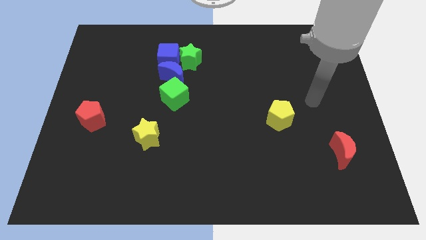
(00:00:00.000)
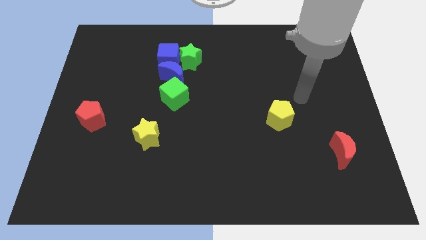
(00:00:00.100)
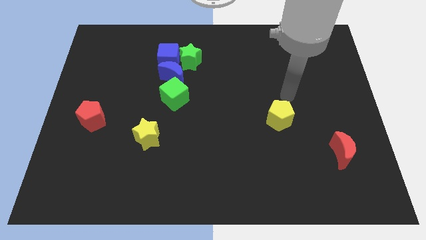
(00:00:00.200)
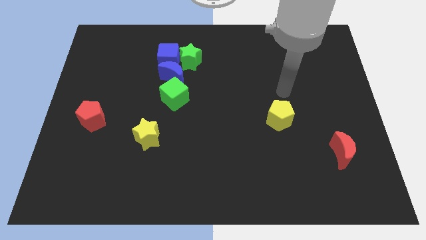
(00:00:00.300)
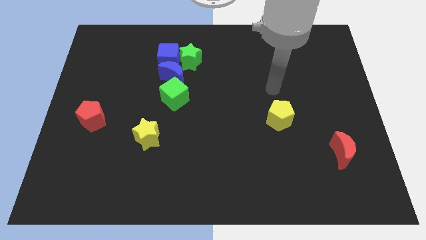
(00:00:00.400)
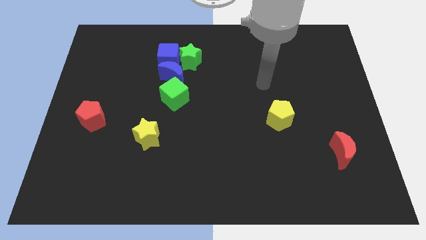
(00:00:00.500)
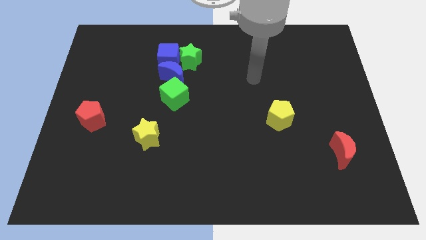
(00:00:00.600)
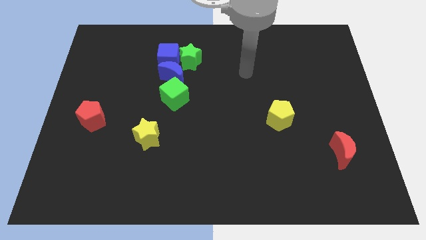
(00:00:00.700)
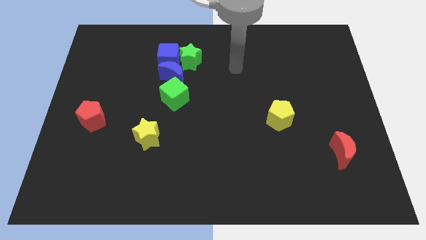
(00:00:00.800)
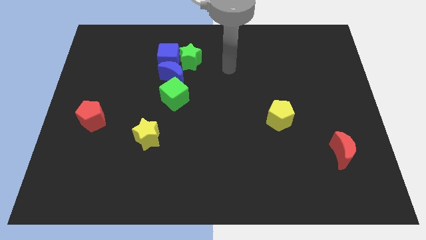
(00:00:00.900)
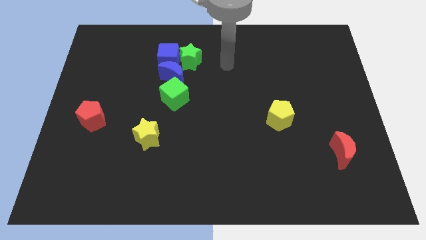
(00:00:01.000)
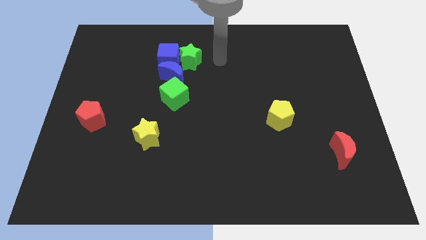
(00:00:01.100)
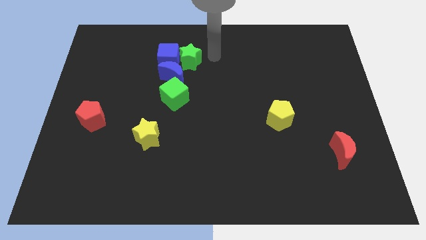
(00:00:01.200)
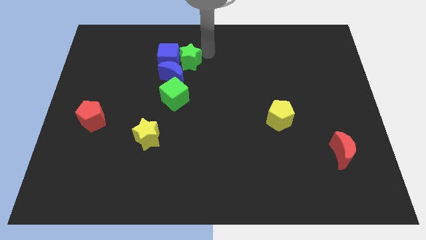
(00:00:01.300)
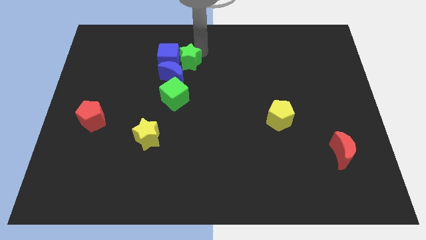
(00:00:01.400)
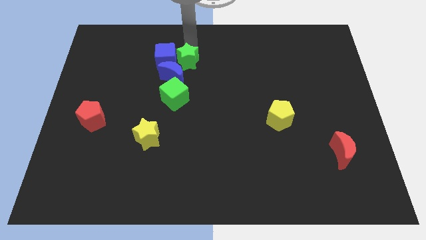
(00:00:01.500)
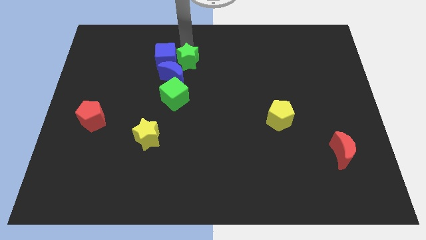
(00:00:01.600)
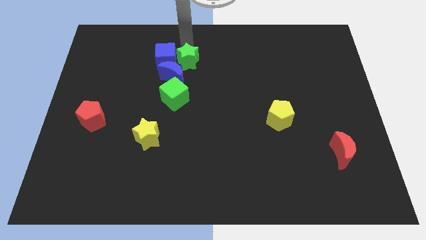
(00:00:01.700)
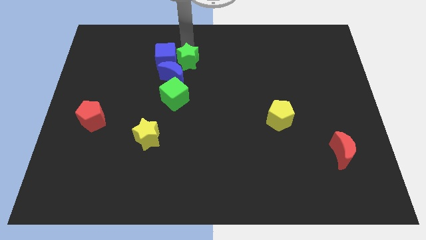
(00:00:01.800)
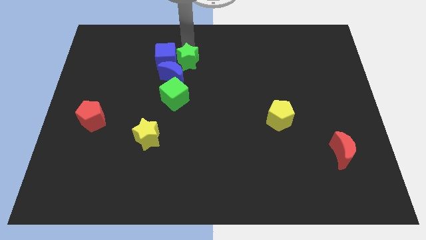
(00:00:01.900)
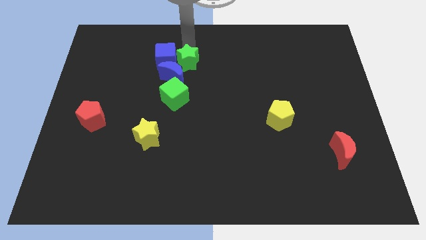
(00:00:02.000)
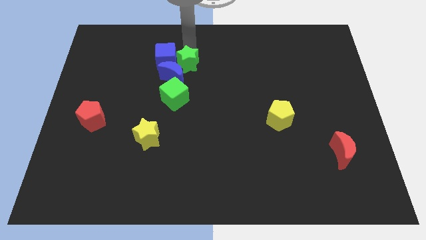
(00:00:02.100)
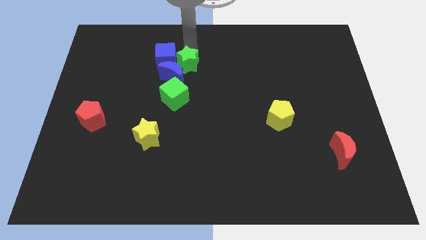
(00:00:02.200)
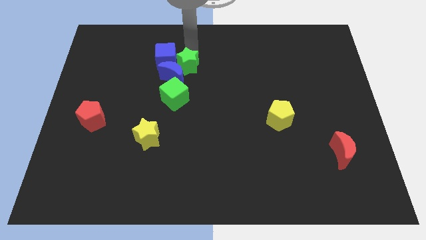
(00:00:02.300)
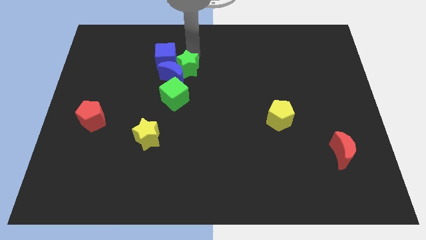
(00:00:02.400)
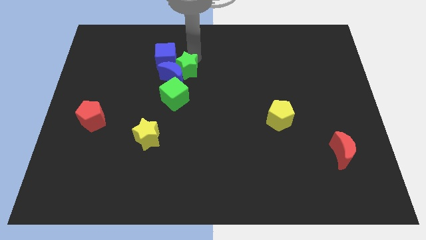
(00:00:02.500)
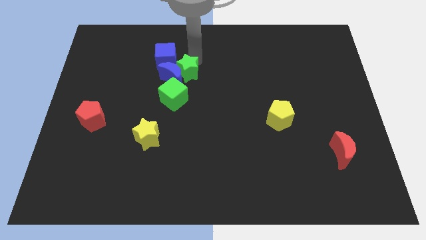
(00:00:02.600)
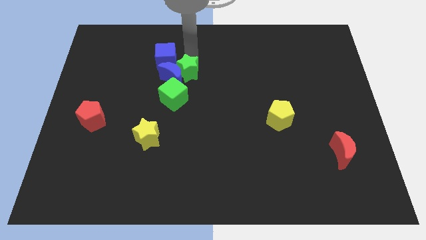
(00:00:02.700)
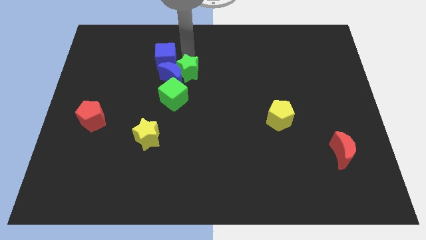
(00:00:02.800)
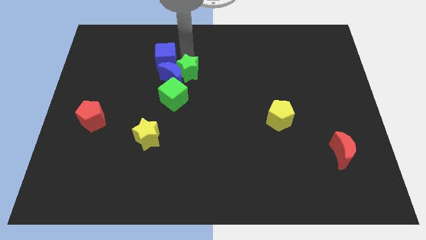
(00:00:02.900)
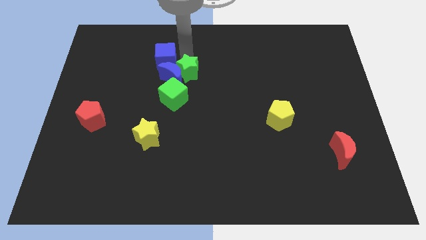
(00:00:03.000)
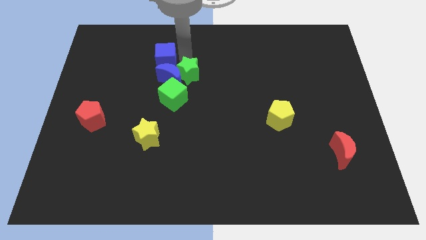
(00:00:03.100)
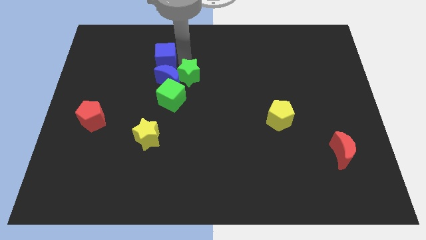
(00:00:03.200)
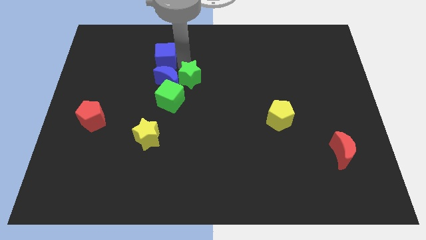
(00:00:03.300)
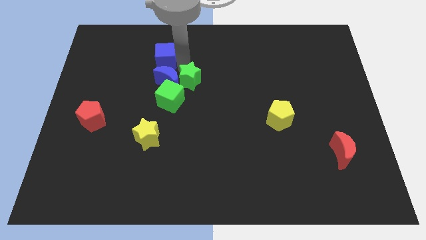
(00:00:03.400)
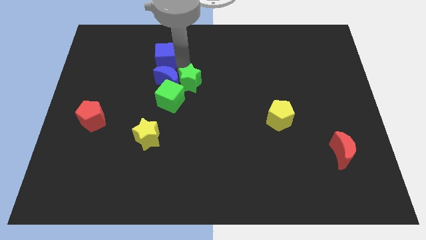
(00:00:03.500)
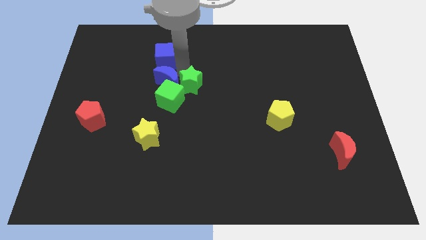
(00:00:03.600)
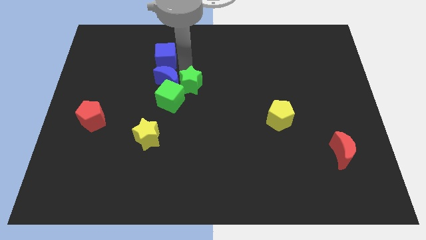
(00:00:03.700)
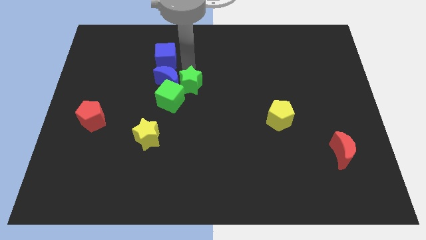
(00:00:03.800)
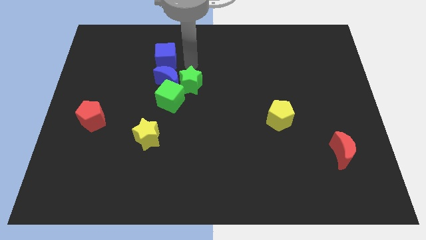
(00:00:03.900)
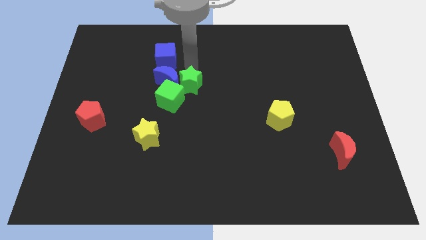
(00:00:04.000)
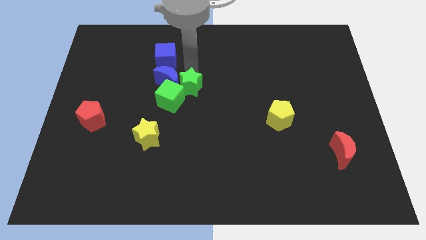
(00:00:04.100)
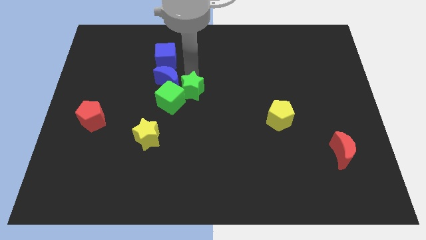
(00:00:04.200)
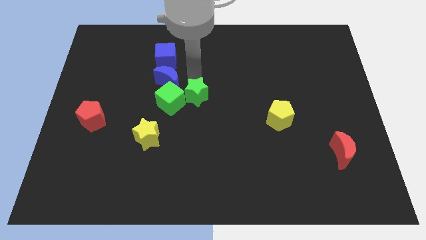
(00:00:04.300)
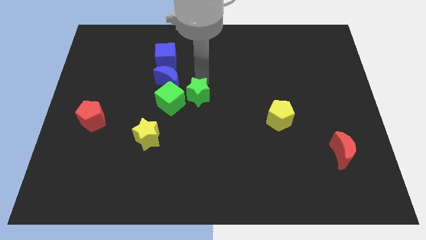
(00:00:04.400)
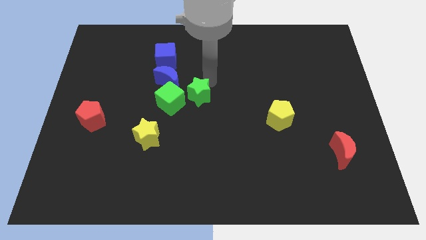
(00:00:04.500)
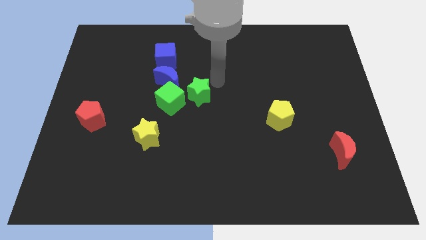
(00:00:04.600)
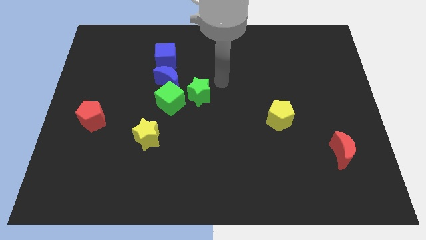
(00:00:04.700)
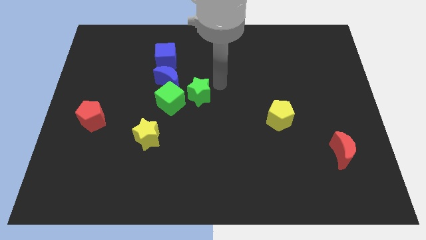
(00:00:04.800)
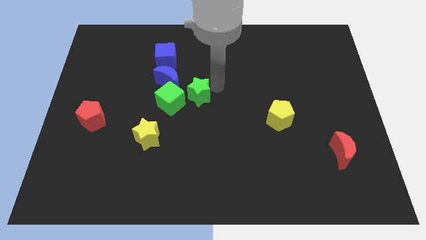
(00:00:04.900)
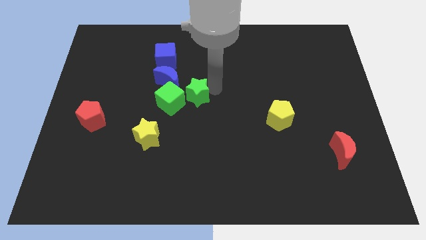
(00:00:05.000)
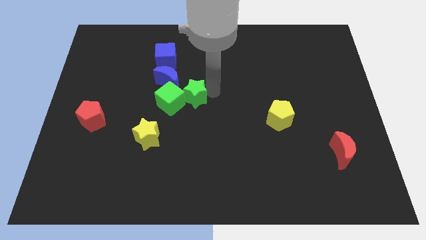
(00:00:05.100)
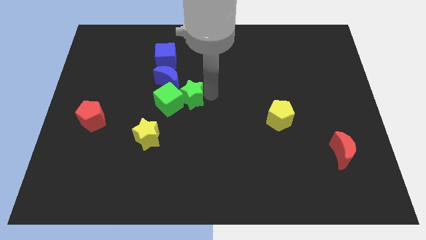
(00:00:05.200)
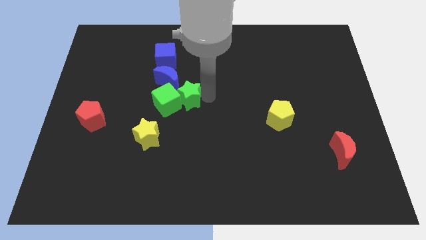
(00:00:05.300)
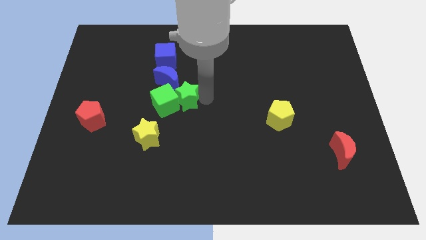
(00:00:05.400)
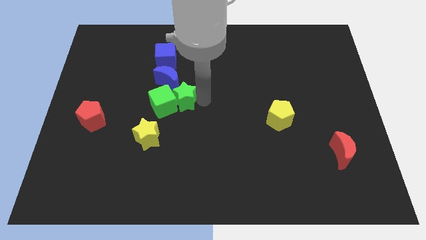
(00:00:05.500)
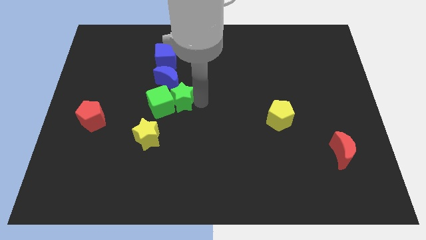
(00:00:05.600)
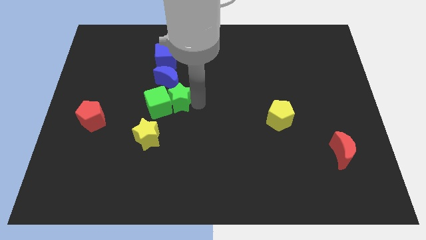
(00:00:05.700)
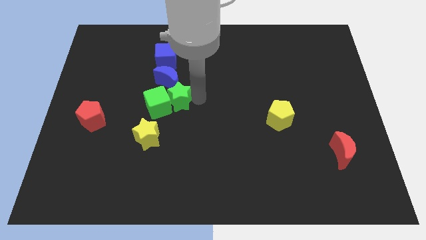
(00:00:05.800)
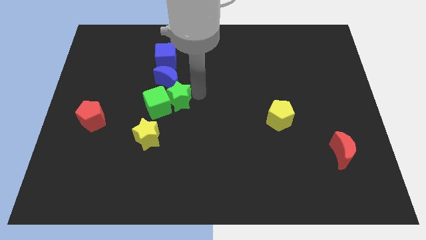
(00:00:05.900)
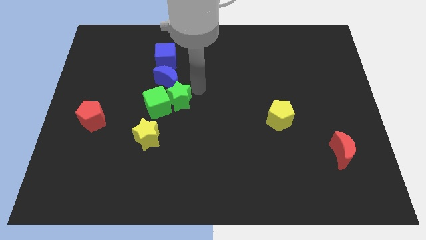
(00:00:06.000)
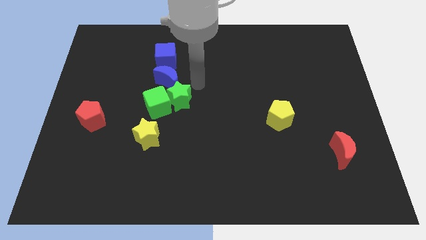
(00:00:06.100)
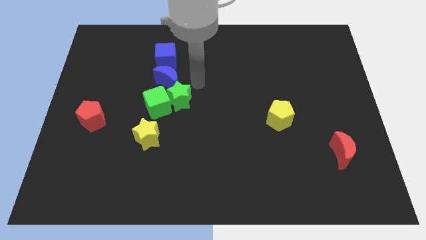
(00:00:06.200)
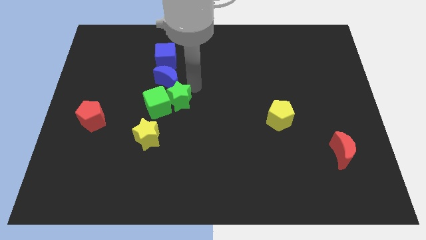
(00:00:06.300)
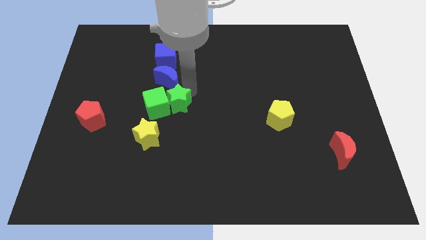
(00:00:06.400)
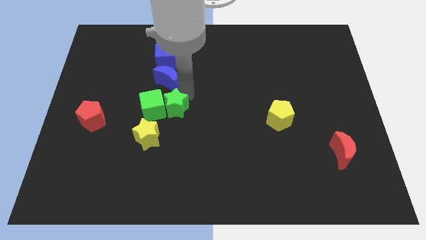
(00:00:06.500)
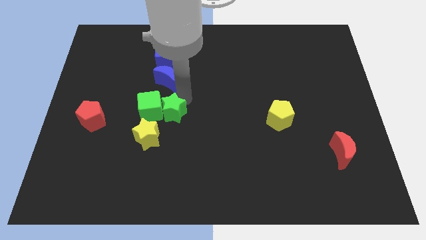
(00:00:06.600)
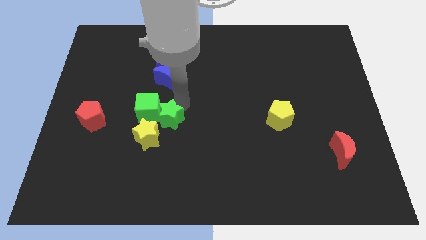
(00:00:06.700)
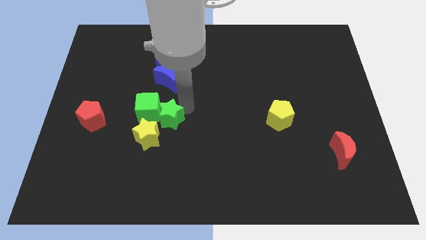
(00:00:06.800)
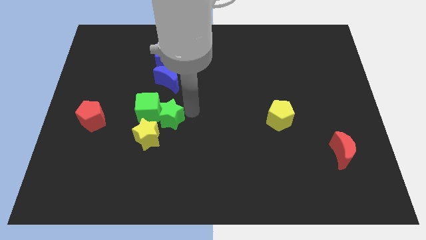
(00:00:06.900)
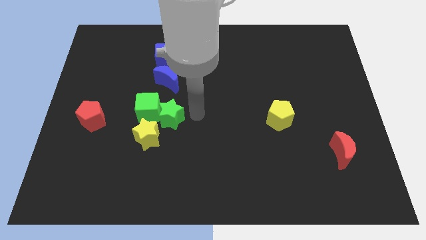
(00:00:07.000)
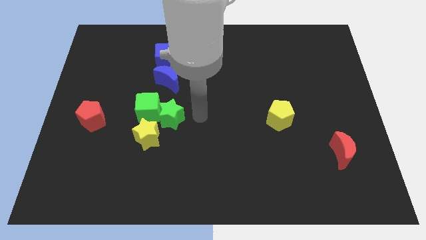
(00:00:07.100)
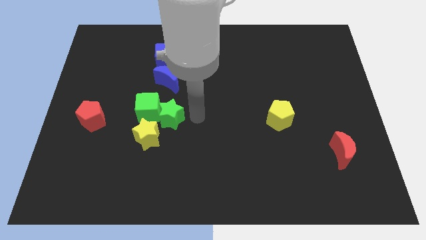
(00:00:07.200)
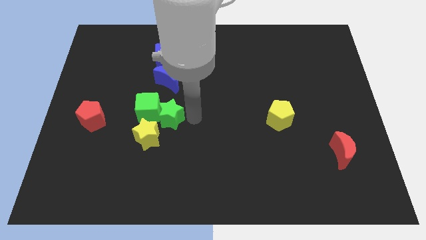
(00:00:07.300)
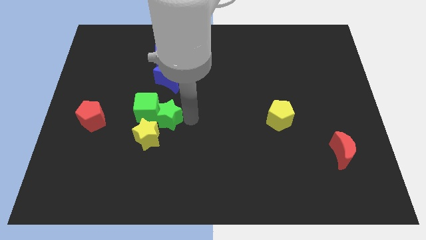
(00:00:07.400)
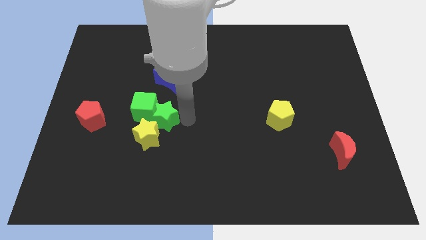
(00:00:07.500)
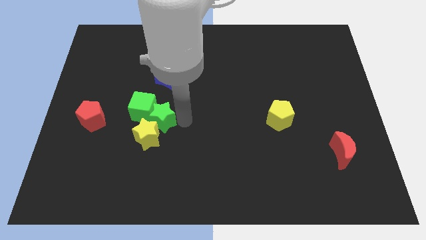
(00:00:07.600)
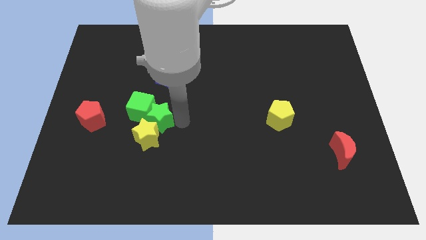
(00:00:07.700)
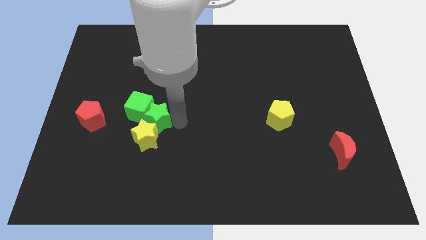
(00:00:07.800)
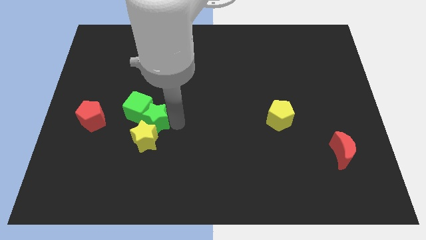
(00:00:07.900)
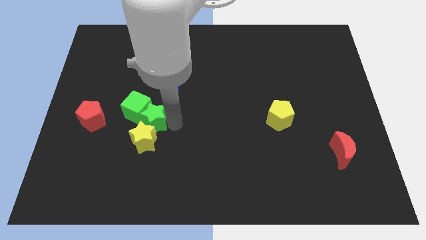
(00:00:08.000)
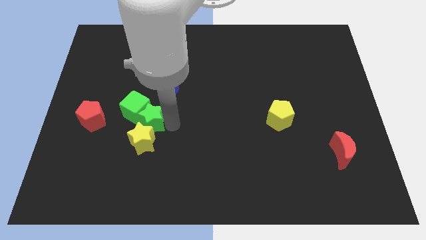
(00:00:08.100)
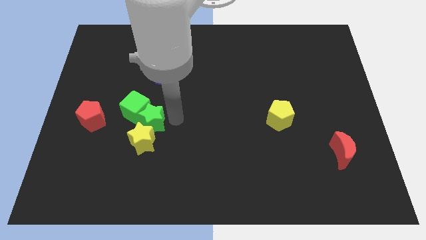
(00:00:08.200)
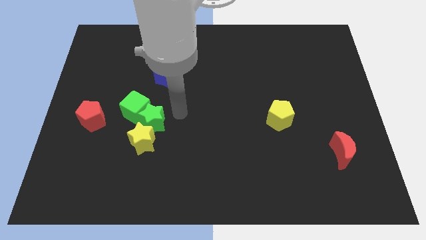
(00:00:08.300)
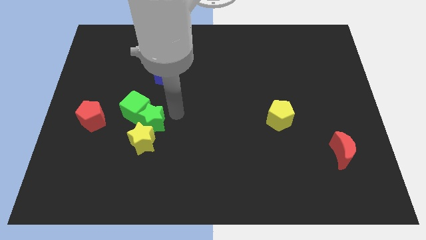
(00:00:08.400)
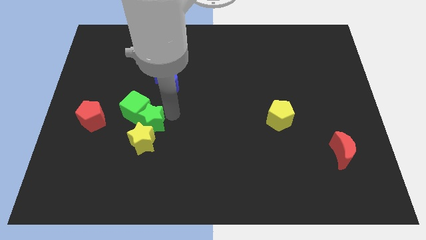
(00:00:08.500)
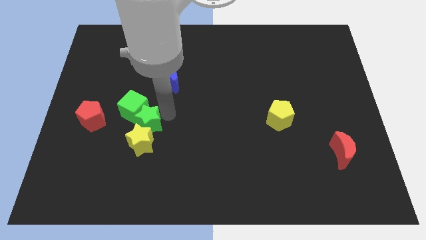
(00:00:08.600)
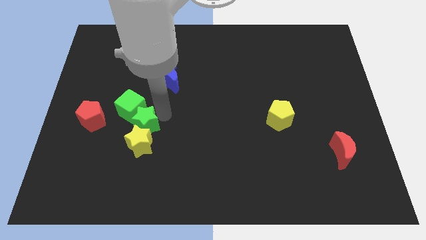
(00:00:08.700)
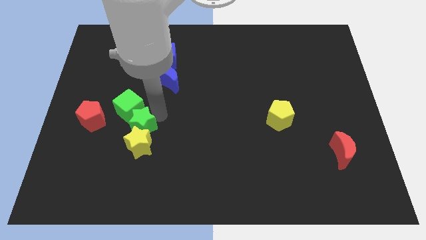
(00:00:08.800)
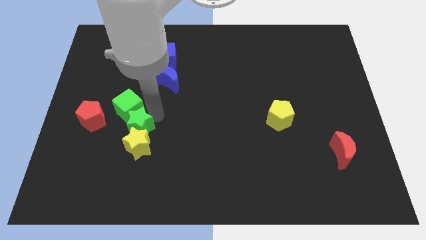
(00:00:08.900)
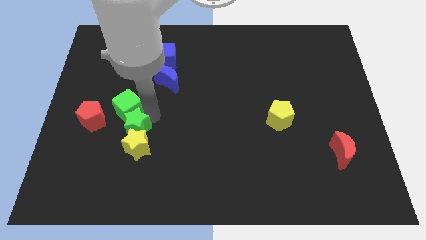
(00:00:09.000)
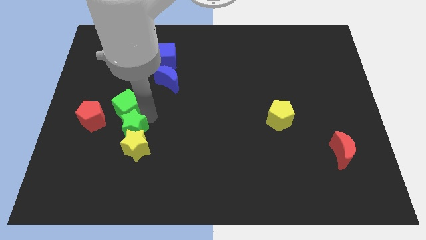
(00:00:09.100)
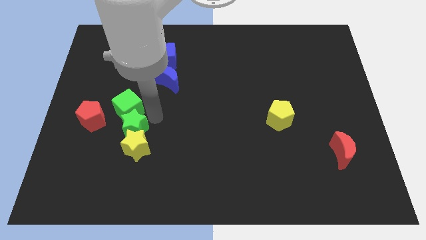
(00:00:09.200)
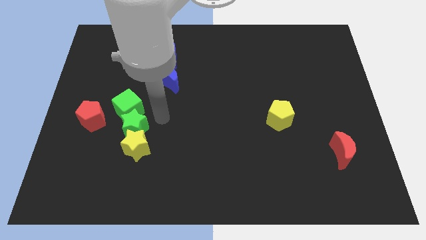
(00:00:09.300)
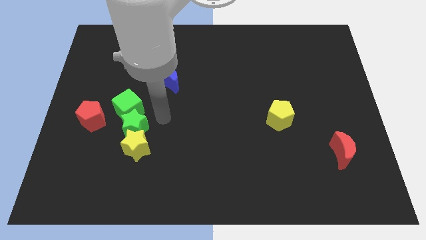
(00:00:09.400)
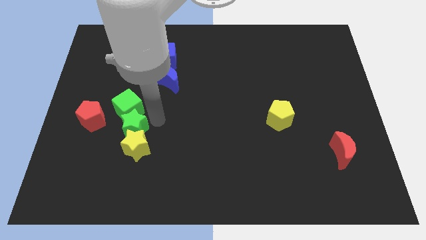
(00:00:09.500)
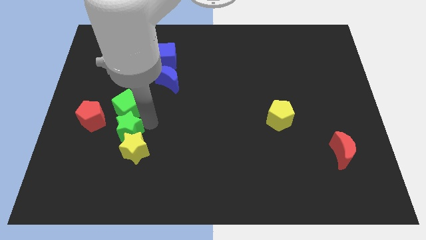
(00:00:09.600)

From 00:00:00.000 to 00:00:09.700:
put the green star diagonally down and to the right of the red pentagon
